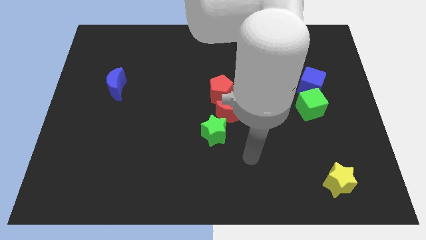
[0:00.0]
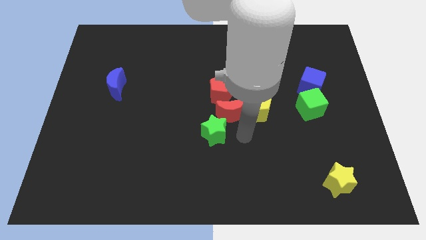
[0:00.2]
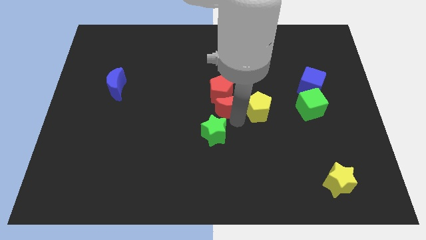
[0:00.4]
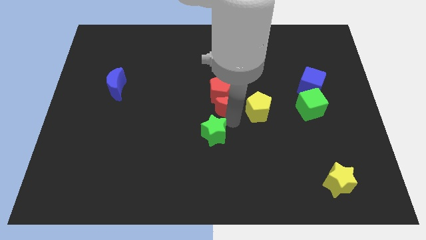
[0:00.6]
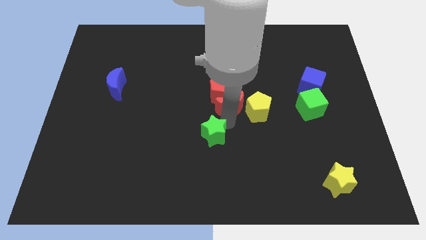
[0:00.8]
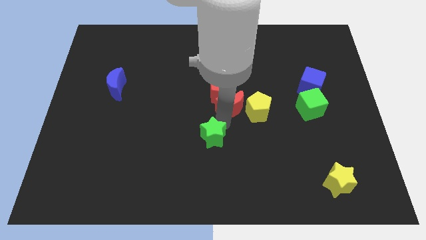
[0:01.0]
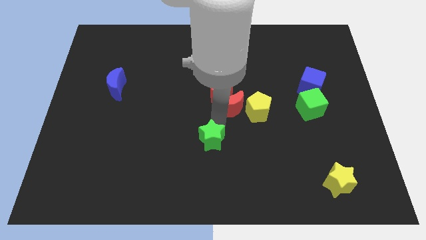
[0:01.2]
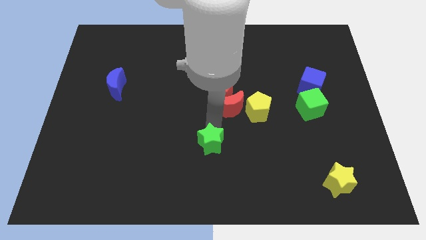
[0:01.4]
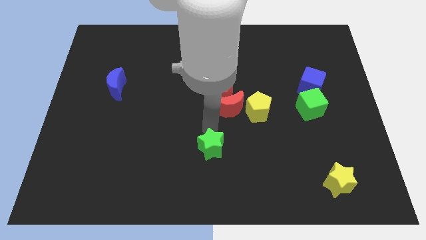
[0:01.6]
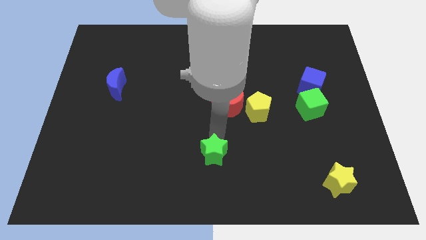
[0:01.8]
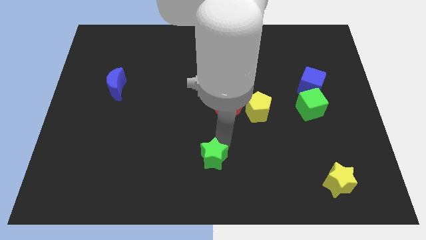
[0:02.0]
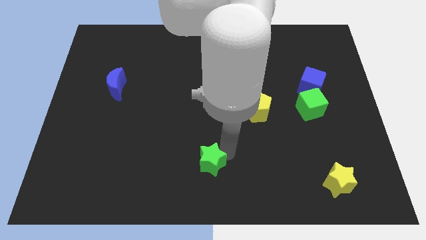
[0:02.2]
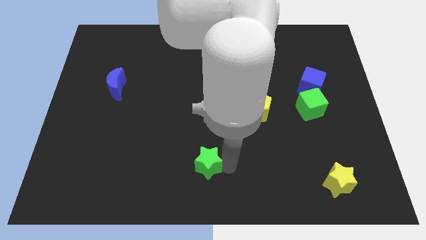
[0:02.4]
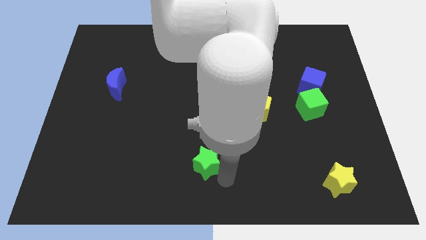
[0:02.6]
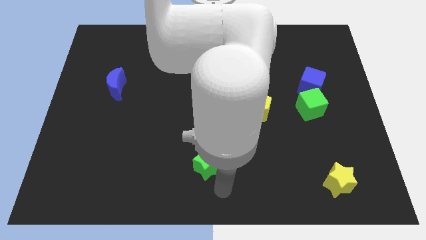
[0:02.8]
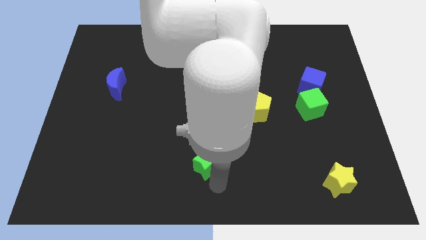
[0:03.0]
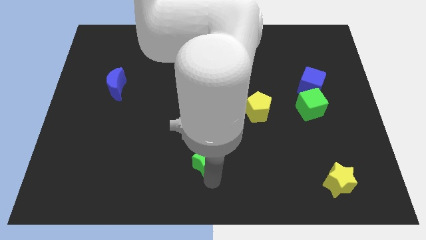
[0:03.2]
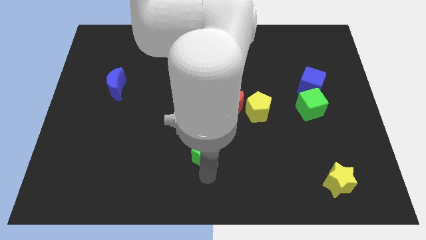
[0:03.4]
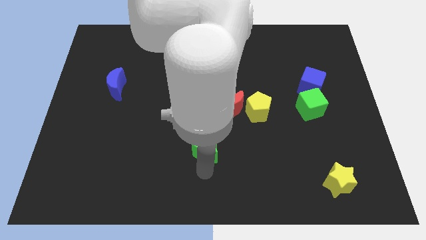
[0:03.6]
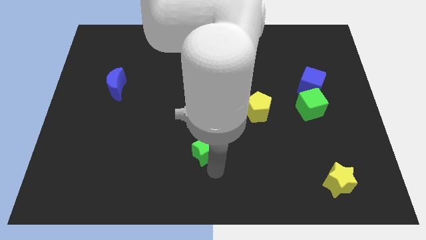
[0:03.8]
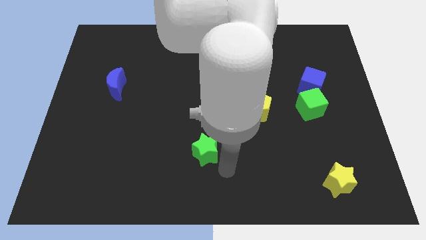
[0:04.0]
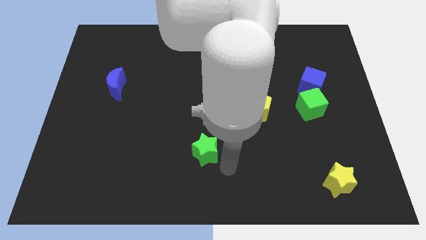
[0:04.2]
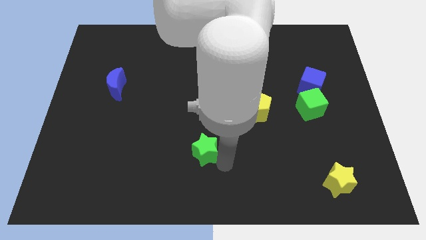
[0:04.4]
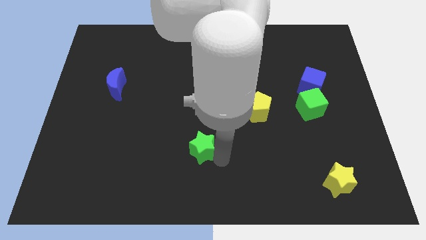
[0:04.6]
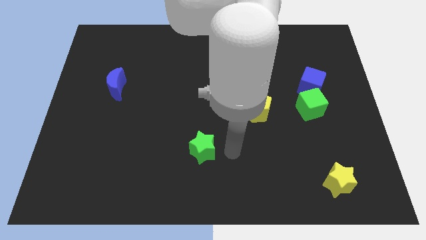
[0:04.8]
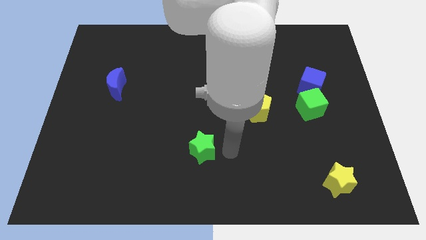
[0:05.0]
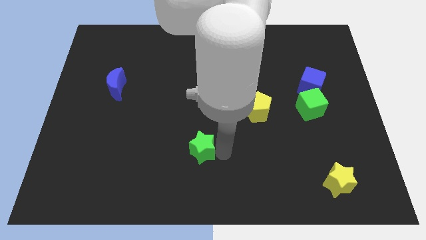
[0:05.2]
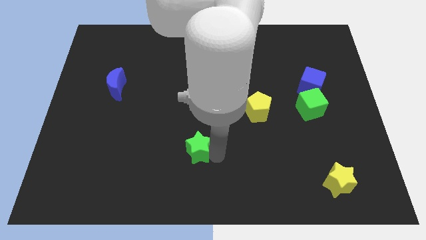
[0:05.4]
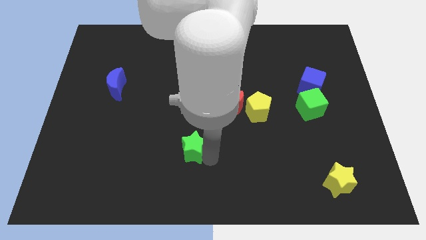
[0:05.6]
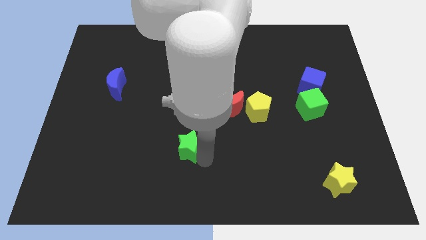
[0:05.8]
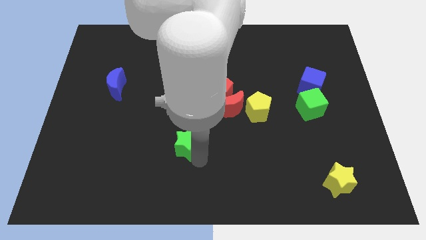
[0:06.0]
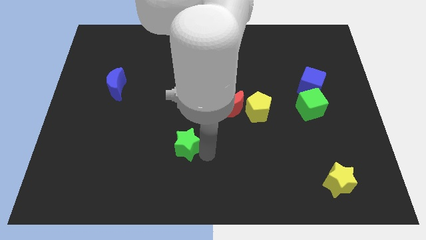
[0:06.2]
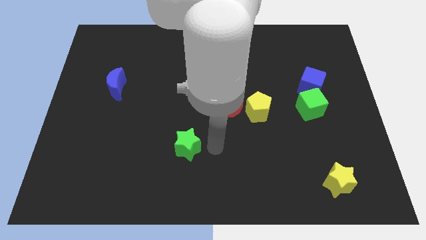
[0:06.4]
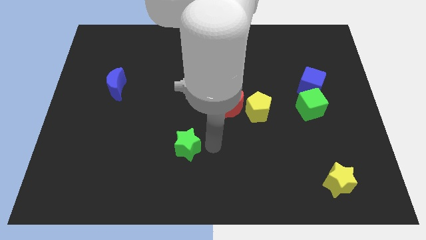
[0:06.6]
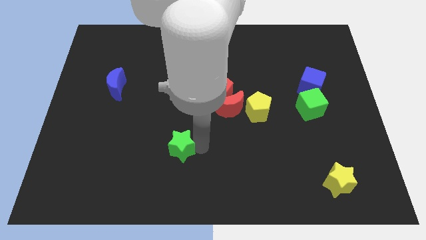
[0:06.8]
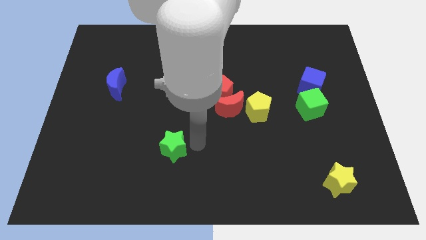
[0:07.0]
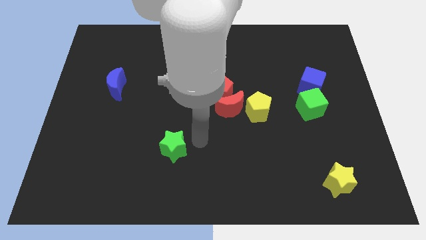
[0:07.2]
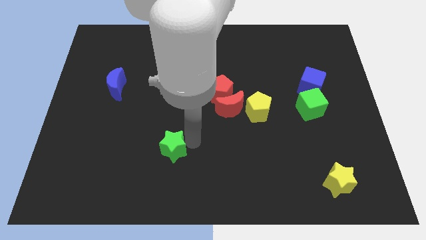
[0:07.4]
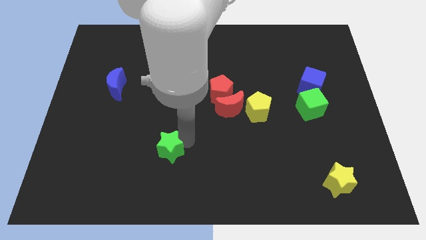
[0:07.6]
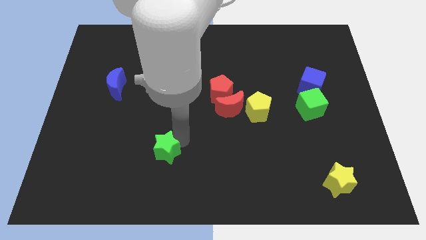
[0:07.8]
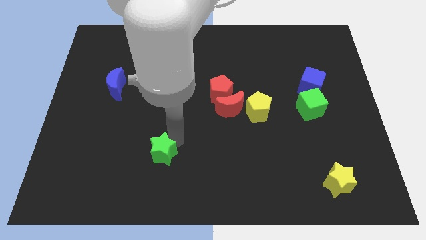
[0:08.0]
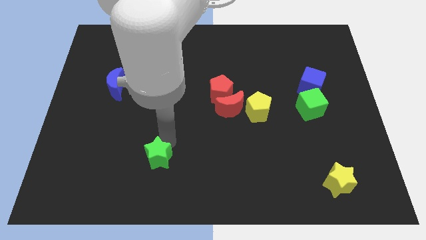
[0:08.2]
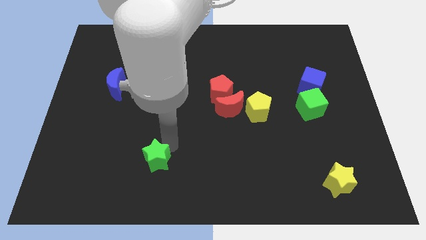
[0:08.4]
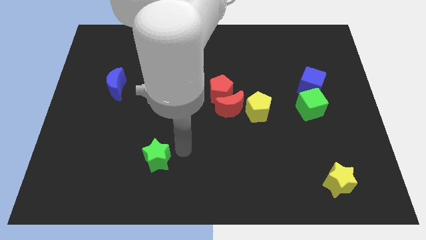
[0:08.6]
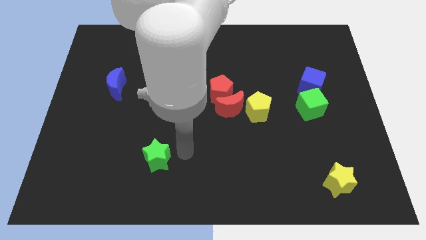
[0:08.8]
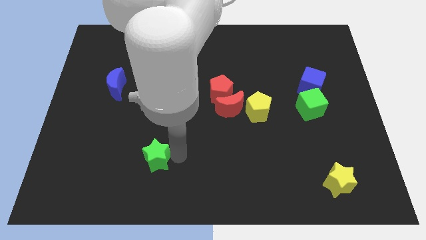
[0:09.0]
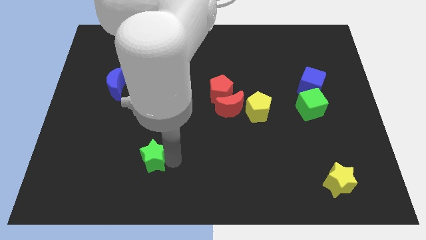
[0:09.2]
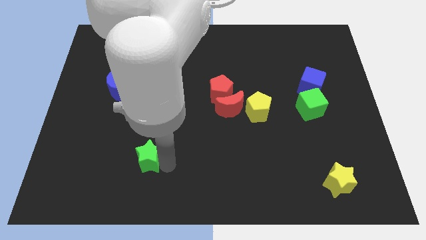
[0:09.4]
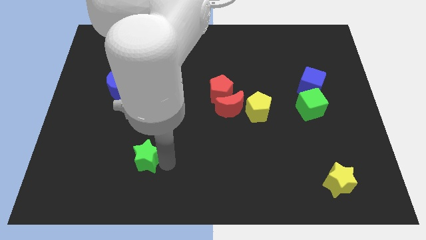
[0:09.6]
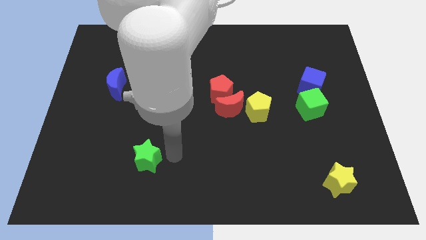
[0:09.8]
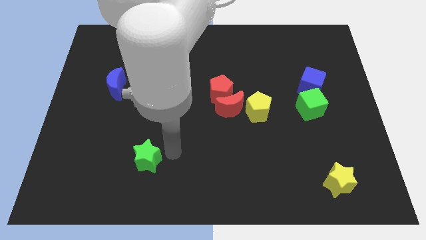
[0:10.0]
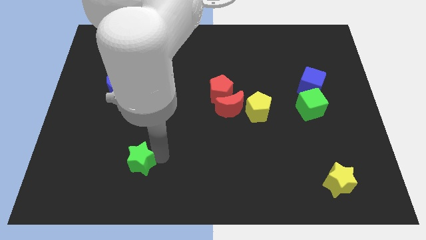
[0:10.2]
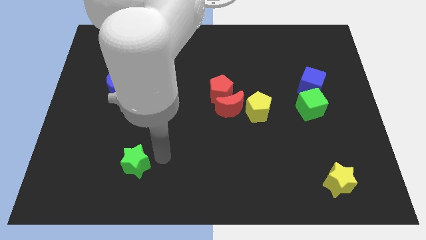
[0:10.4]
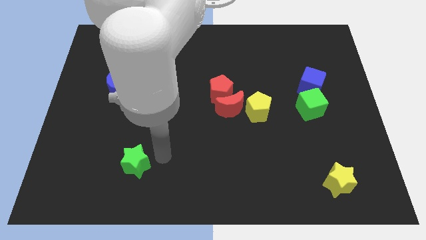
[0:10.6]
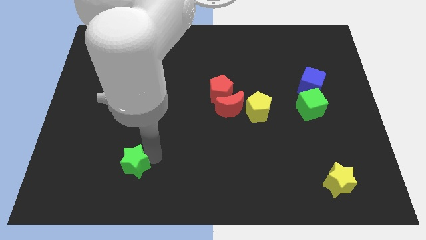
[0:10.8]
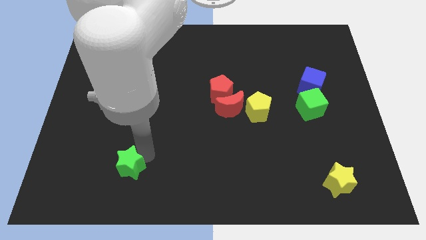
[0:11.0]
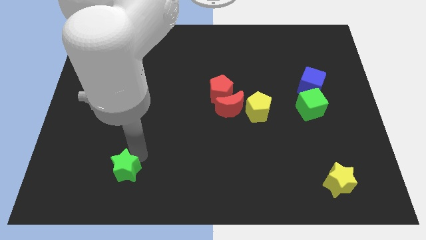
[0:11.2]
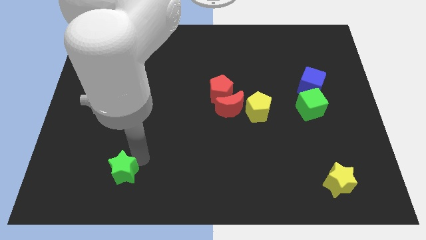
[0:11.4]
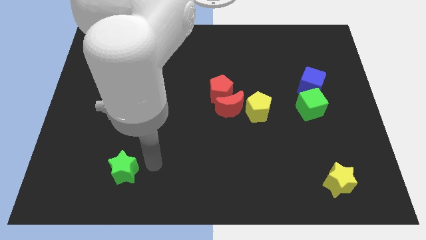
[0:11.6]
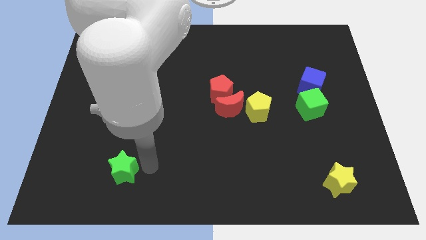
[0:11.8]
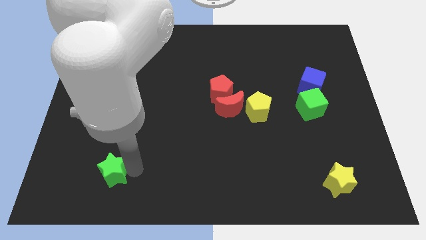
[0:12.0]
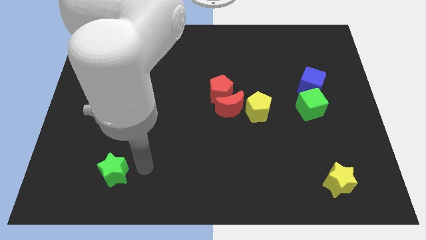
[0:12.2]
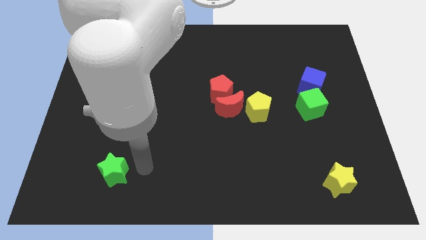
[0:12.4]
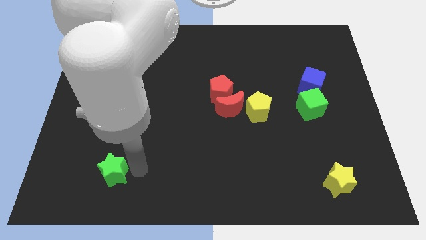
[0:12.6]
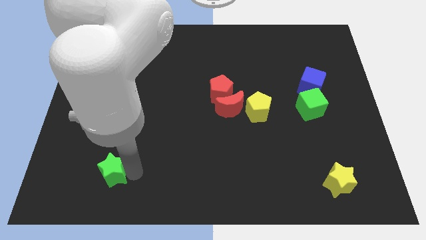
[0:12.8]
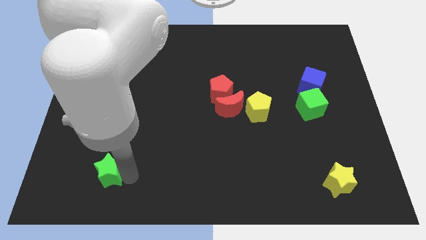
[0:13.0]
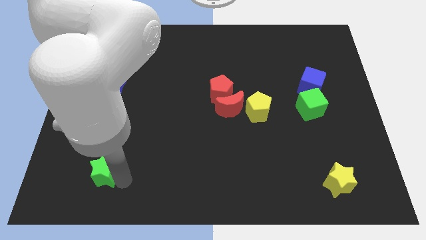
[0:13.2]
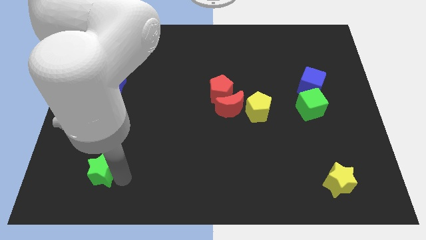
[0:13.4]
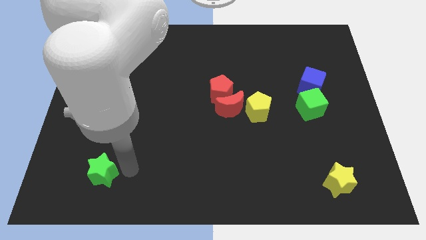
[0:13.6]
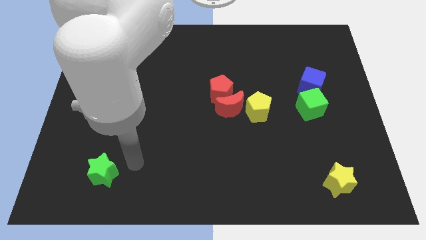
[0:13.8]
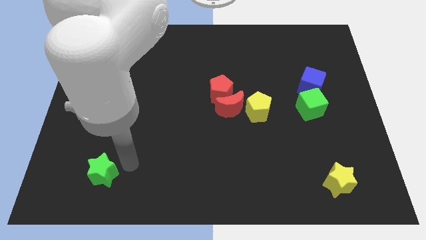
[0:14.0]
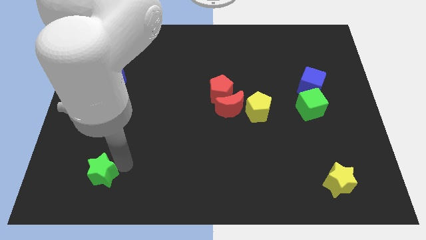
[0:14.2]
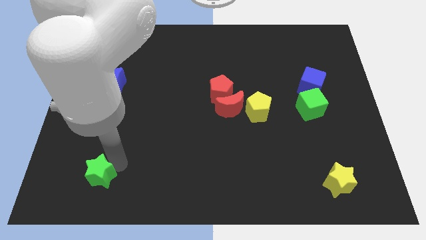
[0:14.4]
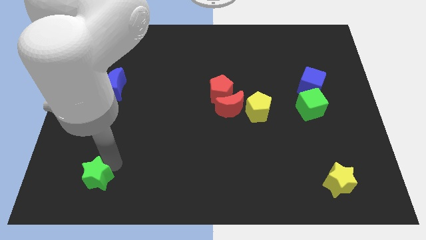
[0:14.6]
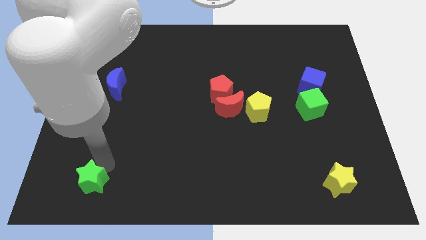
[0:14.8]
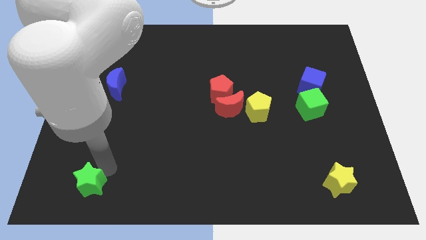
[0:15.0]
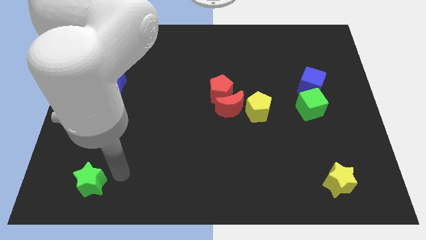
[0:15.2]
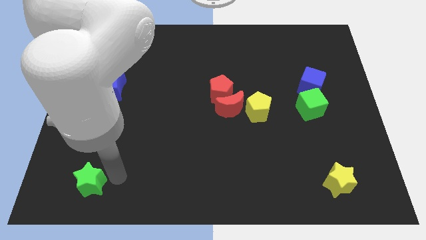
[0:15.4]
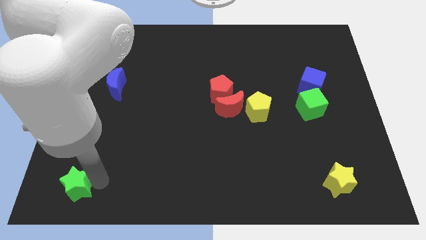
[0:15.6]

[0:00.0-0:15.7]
slide the green star to the bottom left of the board
